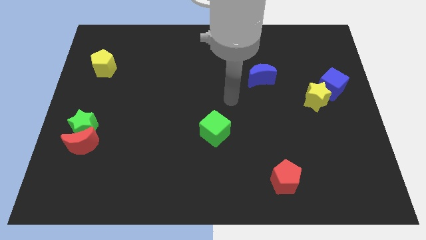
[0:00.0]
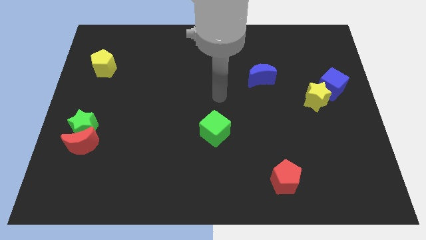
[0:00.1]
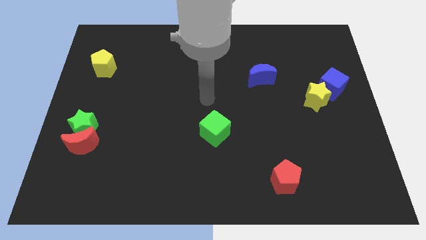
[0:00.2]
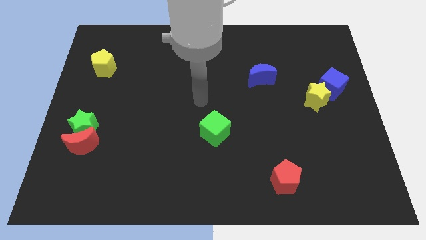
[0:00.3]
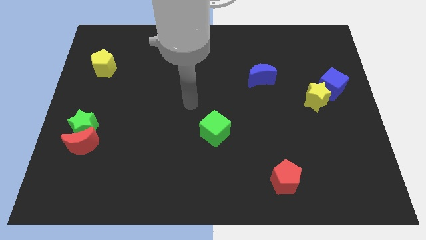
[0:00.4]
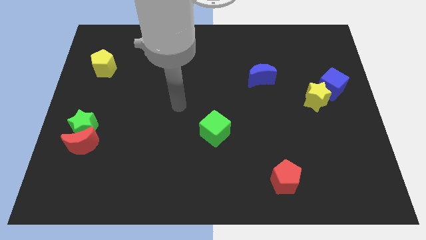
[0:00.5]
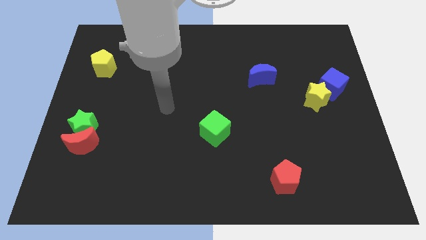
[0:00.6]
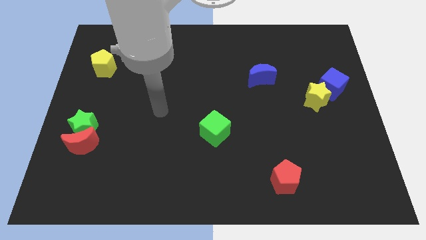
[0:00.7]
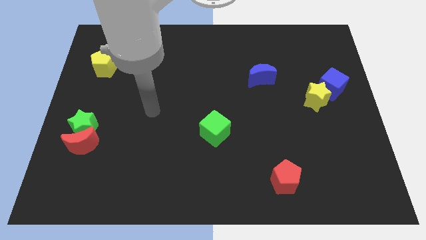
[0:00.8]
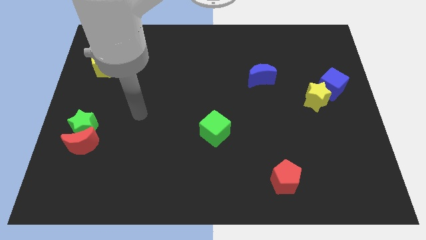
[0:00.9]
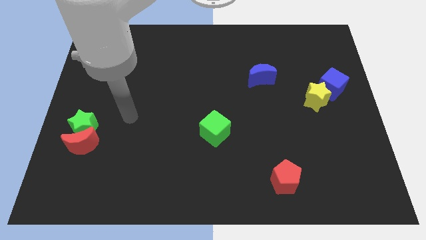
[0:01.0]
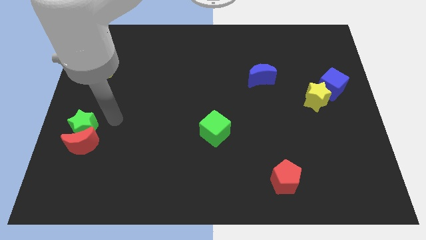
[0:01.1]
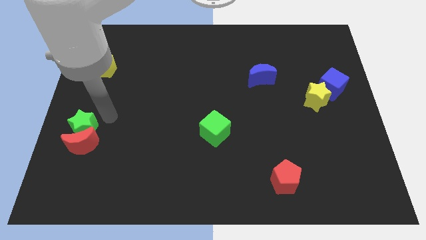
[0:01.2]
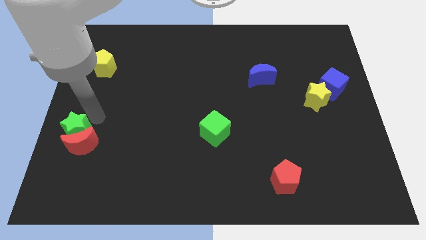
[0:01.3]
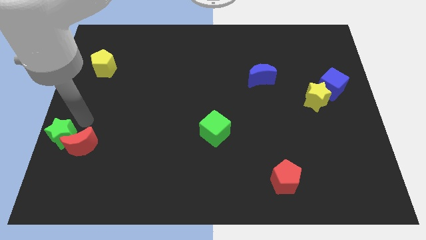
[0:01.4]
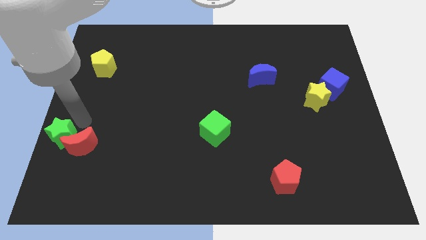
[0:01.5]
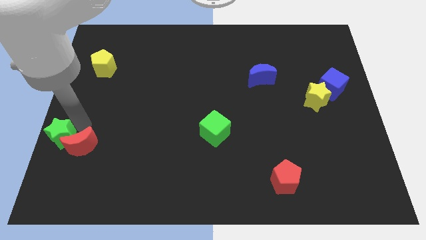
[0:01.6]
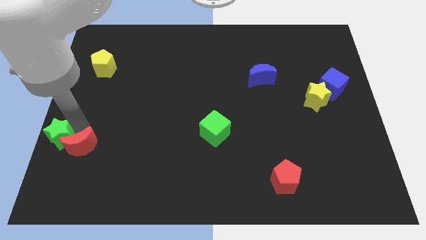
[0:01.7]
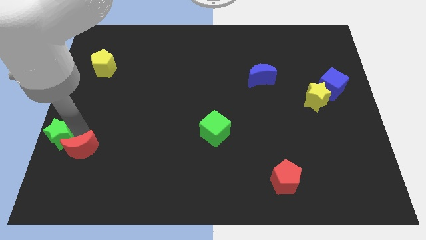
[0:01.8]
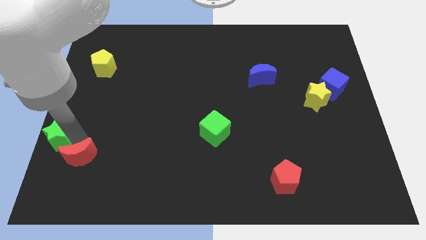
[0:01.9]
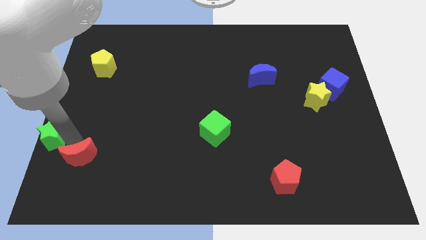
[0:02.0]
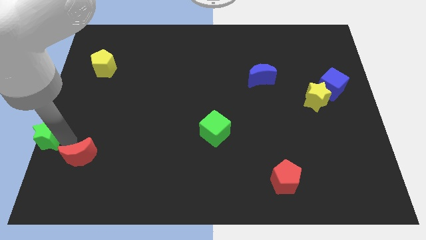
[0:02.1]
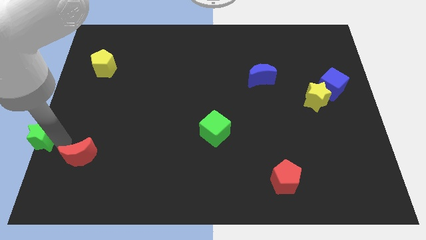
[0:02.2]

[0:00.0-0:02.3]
pull the red moon apart from the green star

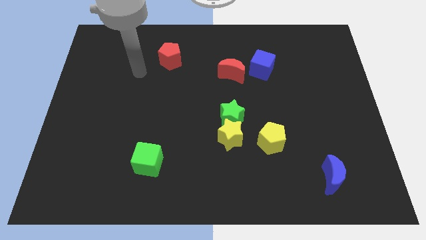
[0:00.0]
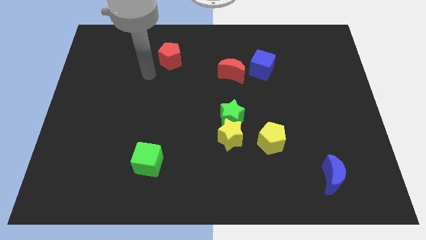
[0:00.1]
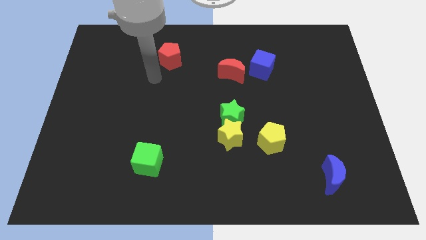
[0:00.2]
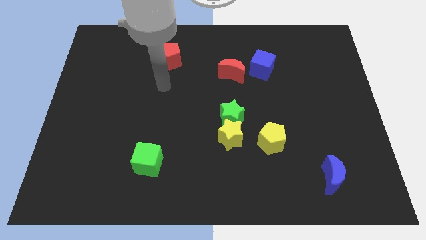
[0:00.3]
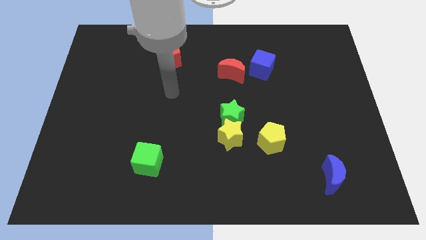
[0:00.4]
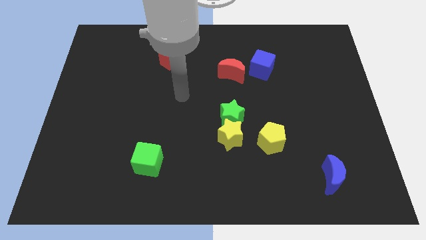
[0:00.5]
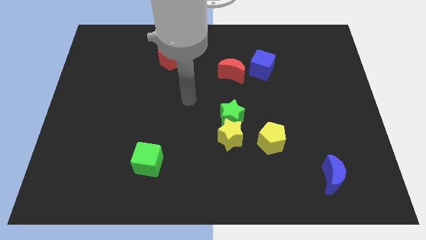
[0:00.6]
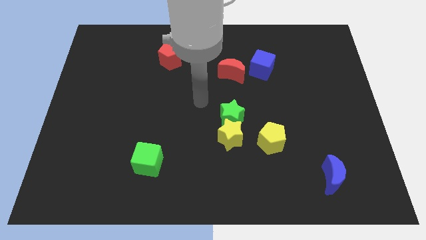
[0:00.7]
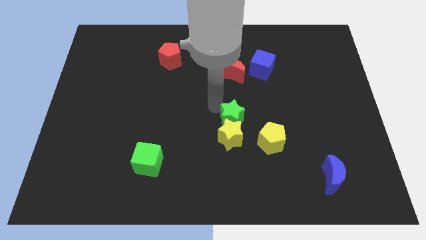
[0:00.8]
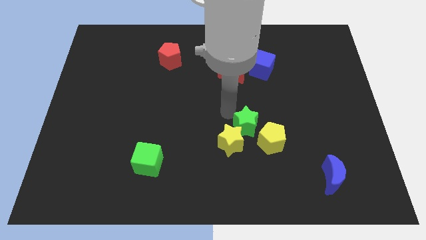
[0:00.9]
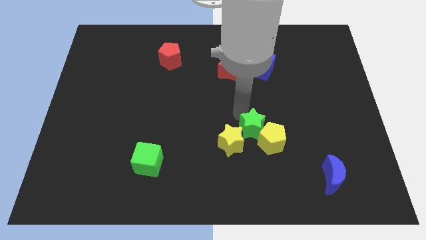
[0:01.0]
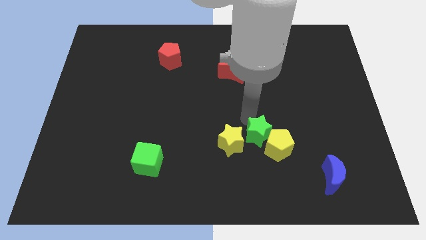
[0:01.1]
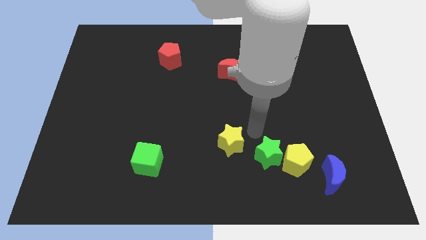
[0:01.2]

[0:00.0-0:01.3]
move the yellow star away from the green star and yellow pentagon

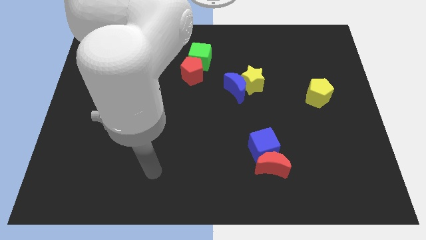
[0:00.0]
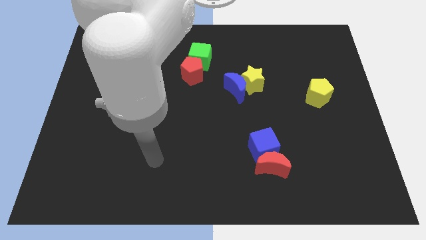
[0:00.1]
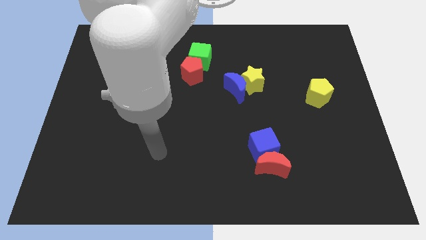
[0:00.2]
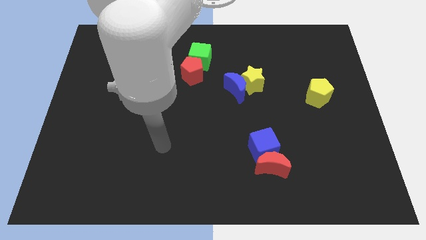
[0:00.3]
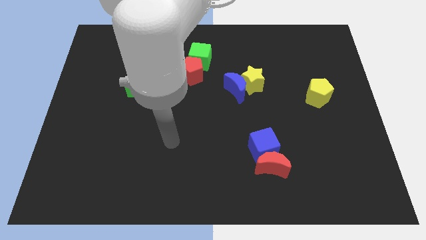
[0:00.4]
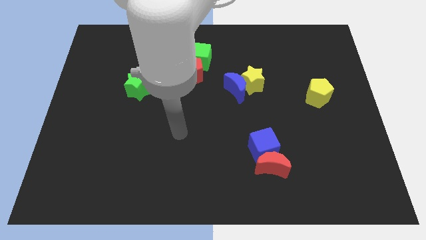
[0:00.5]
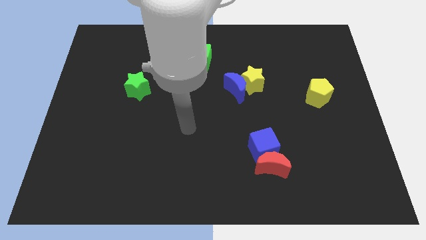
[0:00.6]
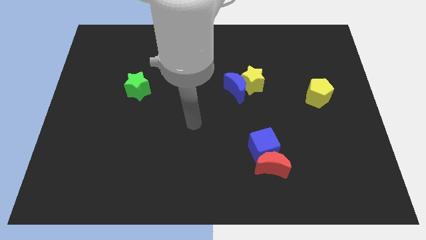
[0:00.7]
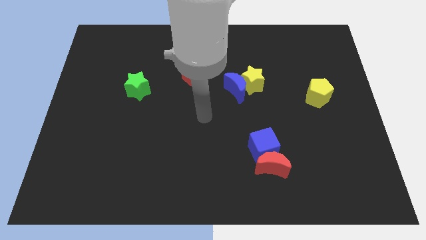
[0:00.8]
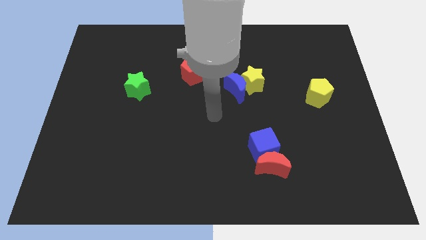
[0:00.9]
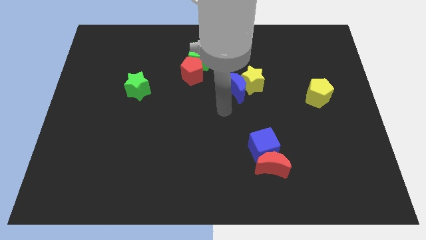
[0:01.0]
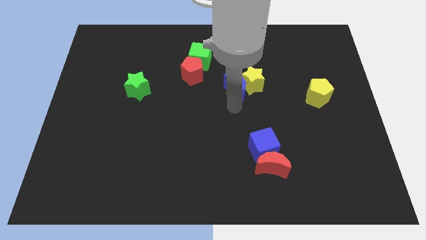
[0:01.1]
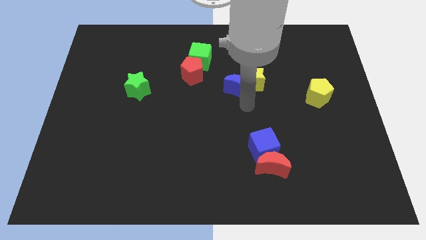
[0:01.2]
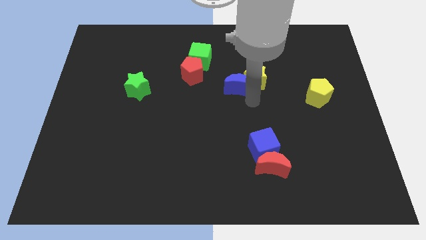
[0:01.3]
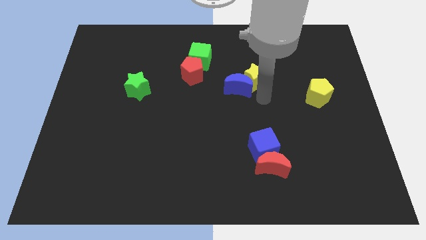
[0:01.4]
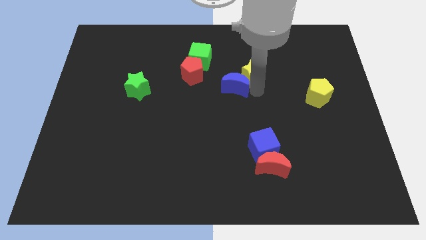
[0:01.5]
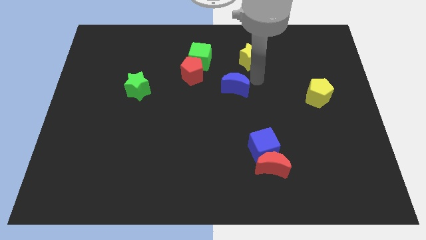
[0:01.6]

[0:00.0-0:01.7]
separate the blue moon from the yellow star

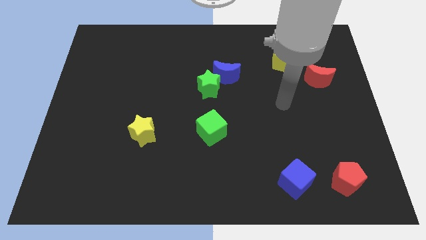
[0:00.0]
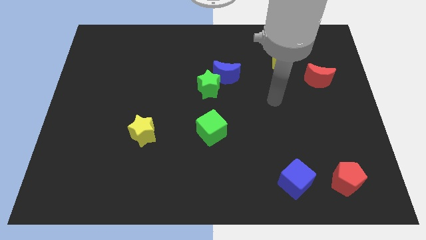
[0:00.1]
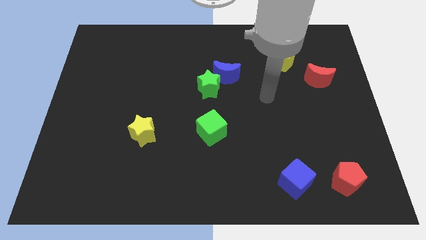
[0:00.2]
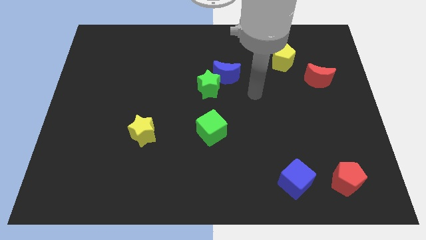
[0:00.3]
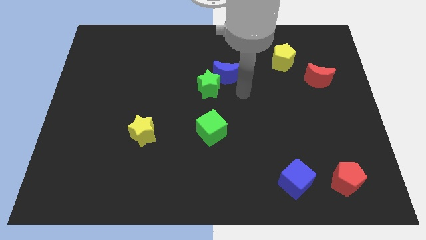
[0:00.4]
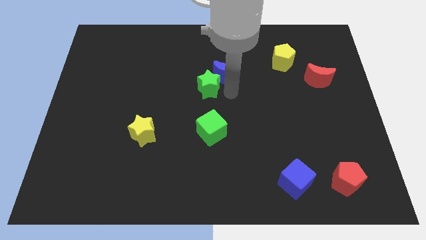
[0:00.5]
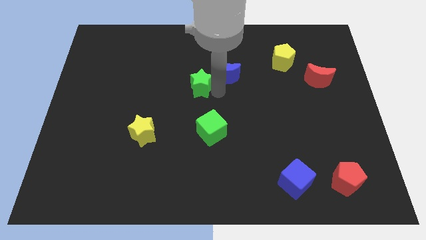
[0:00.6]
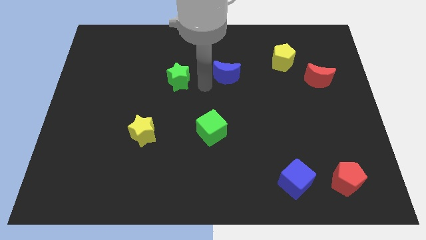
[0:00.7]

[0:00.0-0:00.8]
pull the blue moon apart from the green star

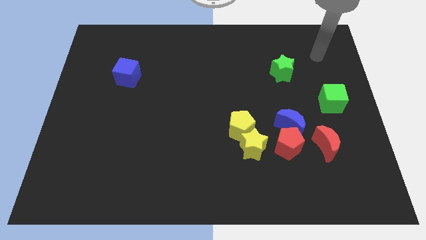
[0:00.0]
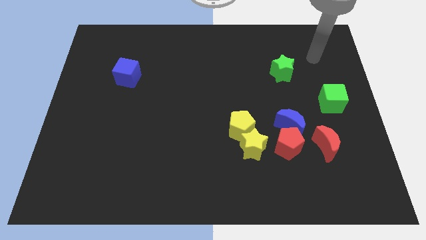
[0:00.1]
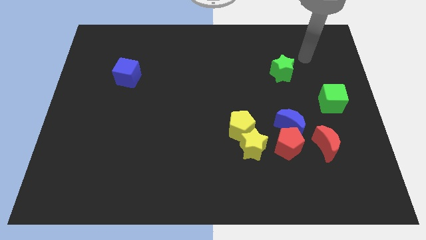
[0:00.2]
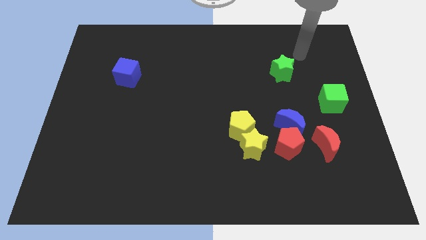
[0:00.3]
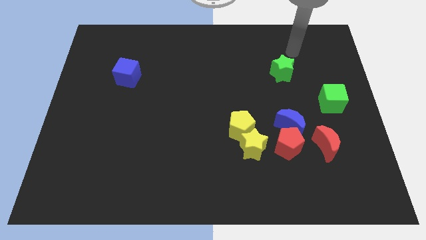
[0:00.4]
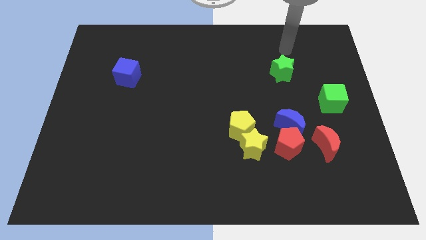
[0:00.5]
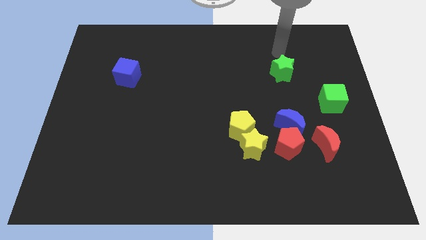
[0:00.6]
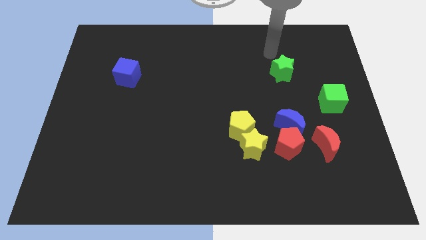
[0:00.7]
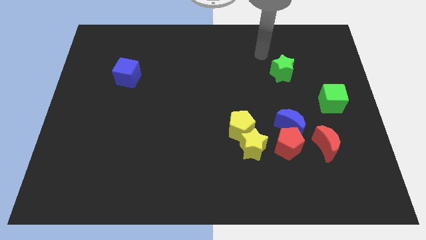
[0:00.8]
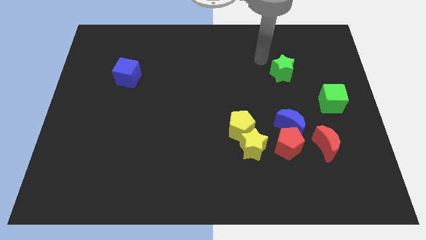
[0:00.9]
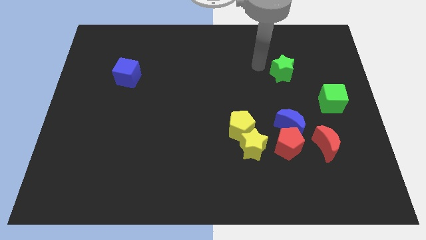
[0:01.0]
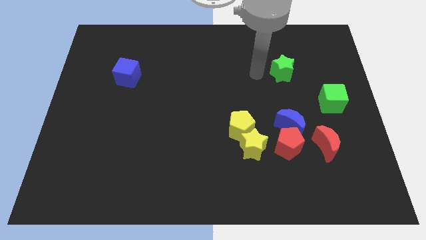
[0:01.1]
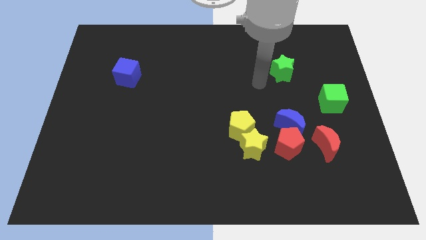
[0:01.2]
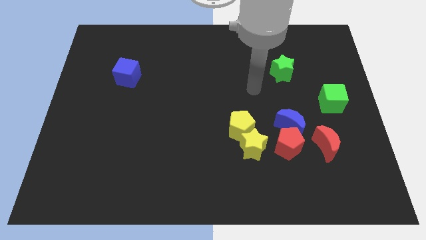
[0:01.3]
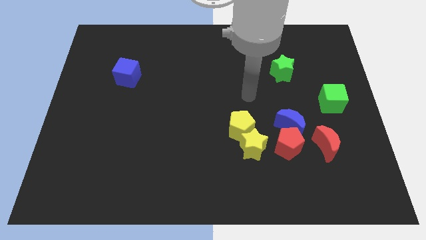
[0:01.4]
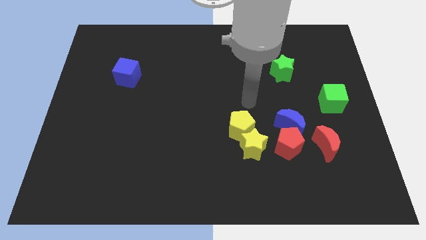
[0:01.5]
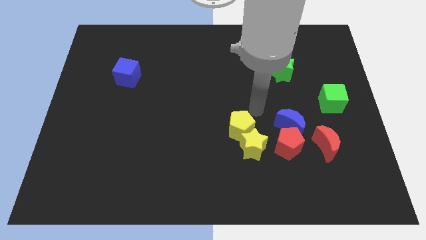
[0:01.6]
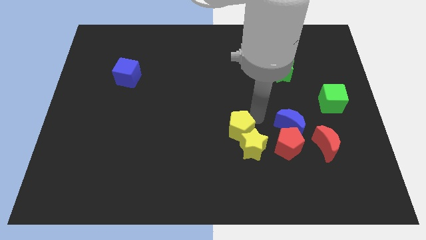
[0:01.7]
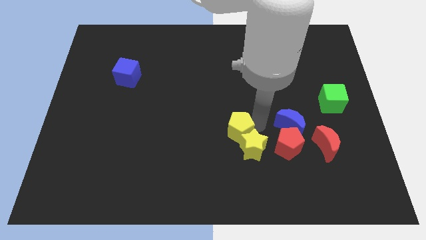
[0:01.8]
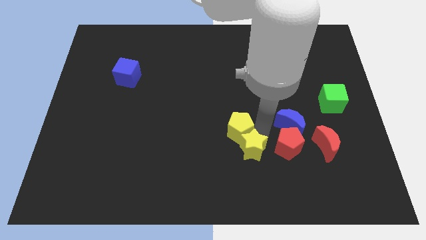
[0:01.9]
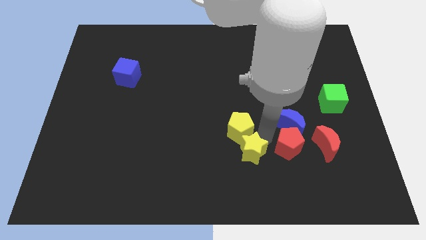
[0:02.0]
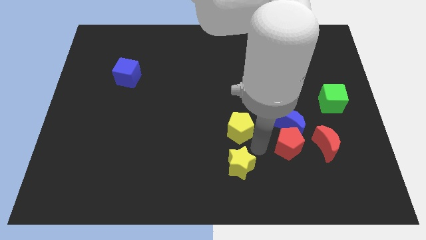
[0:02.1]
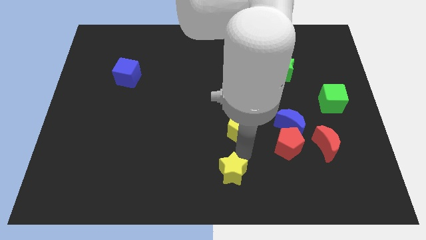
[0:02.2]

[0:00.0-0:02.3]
move the yellow pentagon away from the yellow star

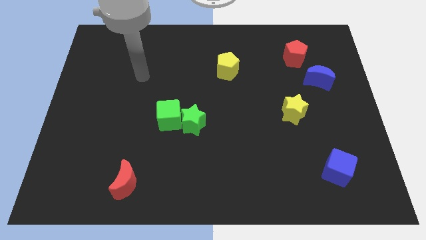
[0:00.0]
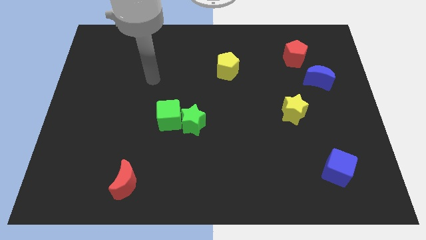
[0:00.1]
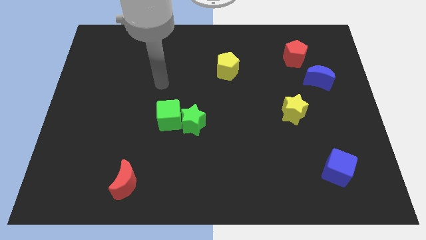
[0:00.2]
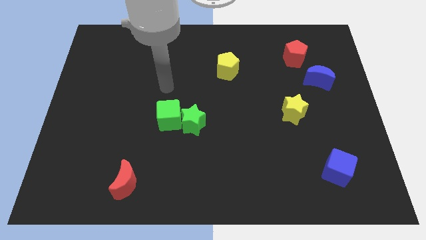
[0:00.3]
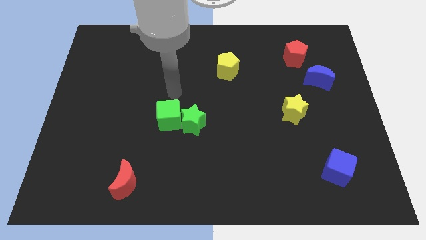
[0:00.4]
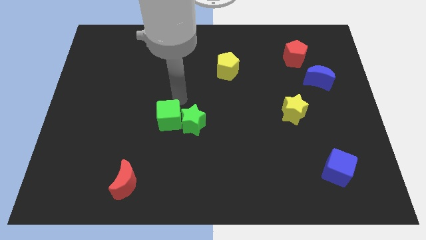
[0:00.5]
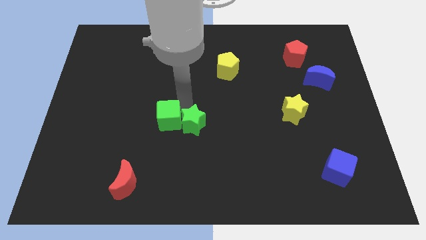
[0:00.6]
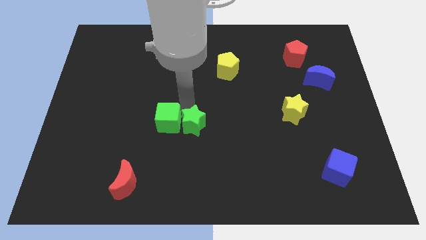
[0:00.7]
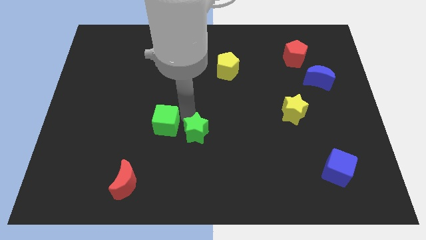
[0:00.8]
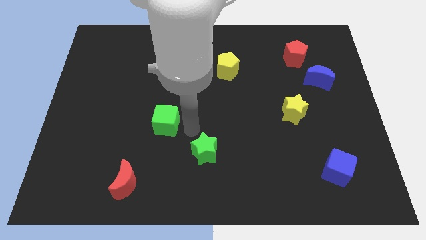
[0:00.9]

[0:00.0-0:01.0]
move the green cube away from the green star
